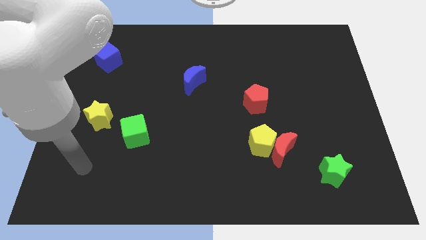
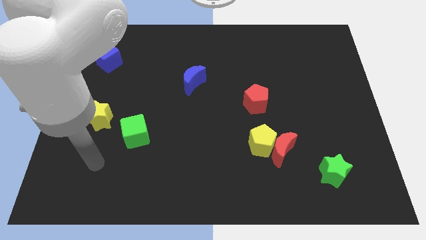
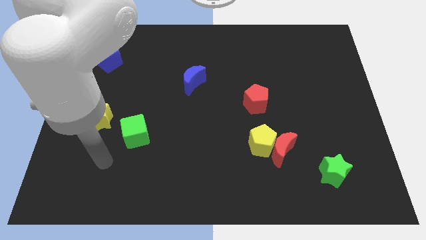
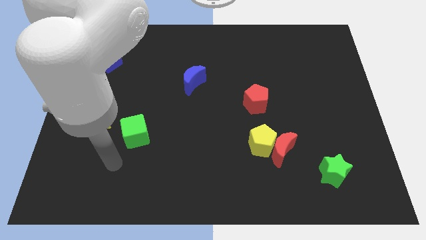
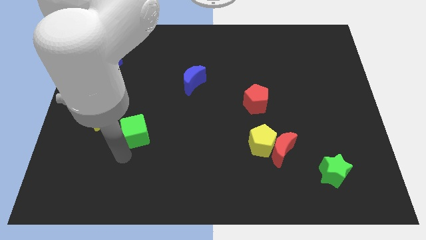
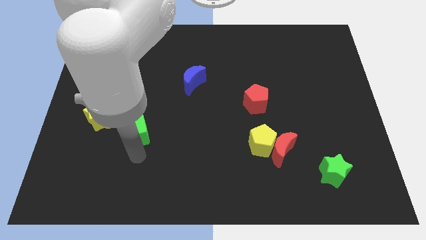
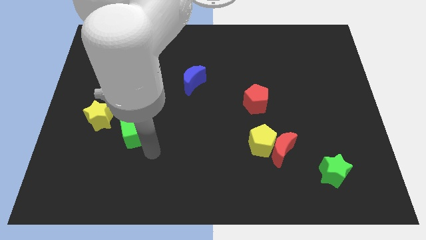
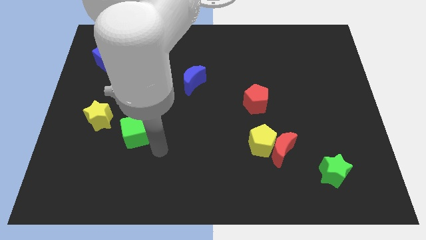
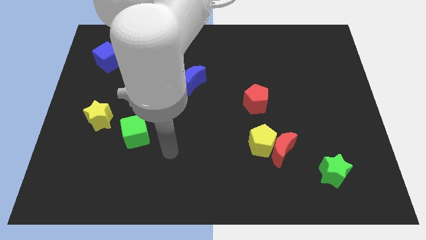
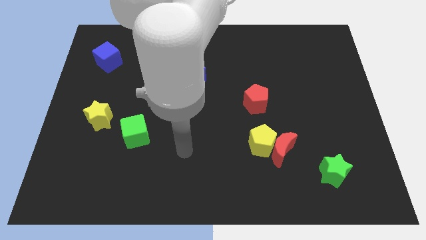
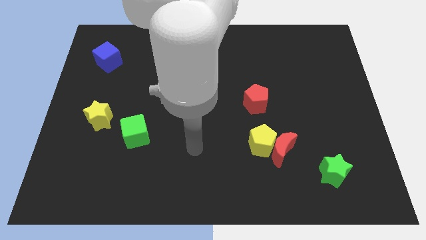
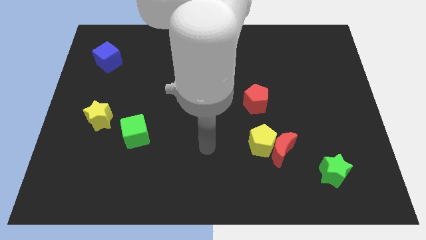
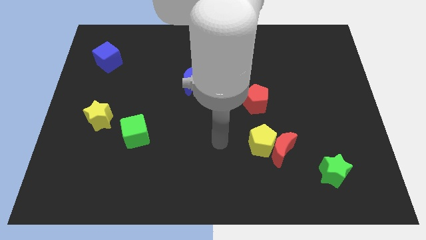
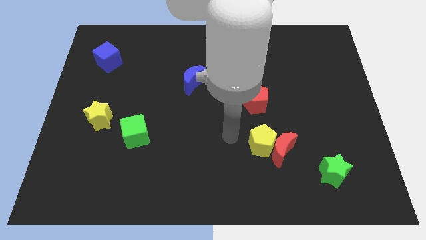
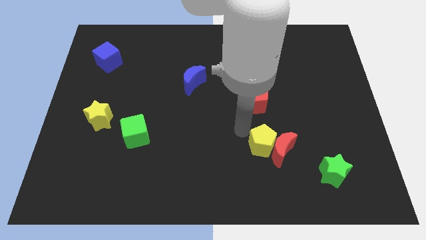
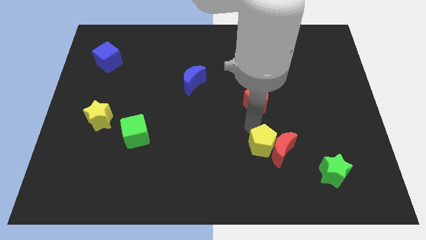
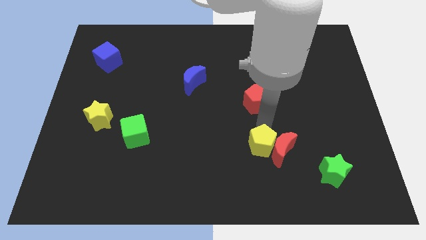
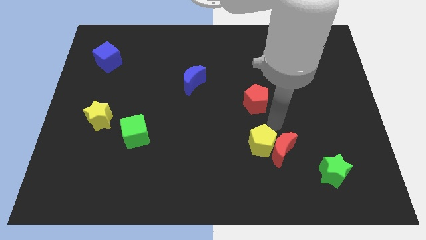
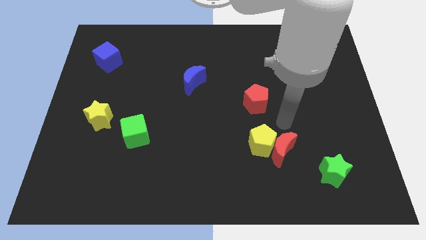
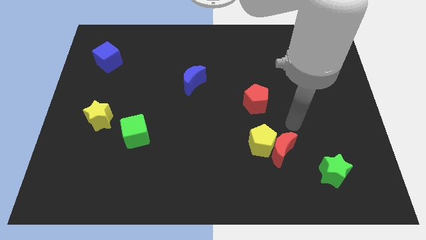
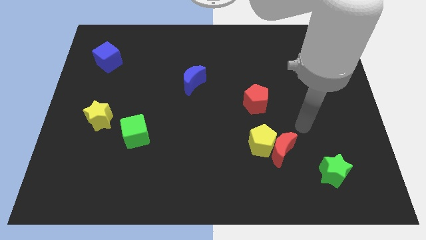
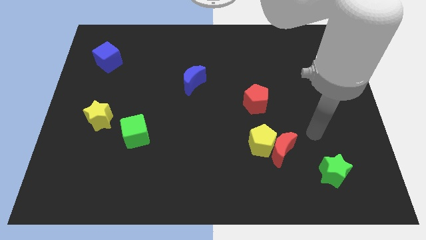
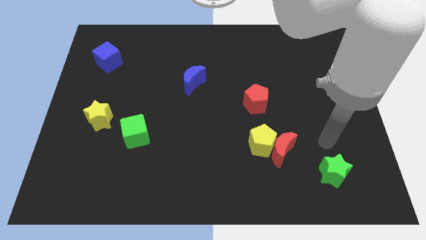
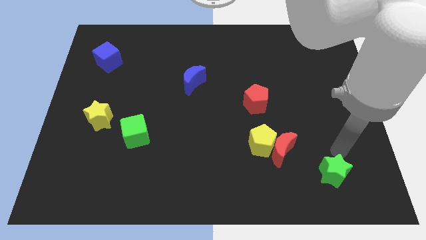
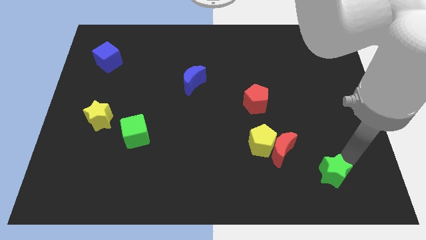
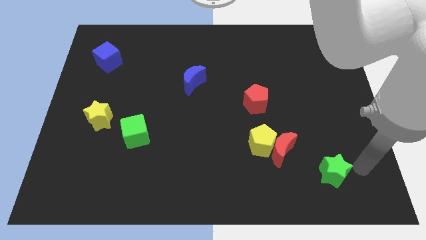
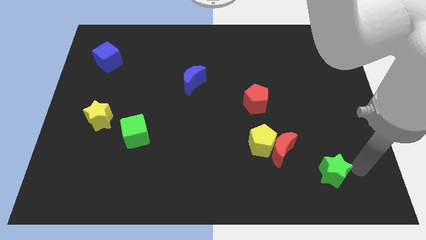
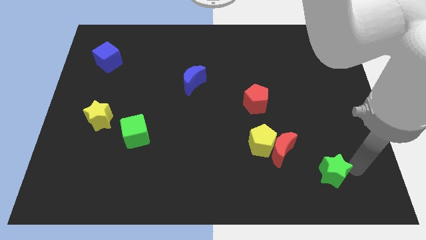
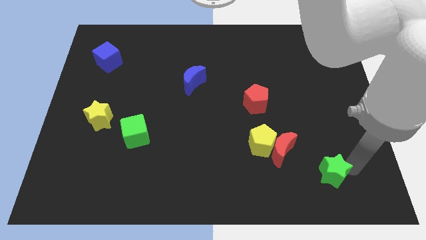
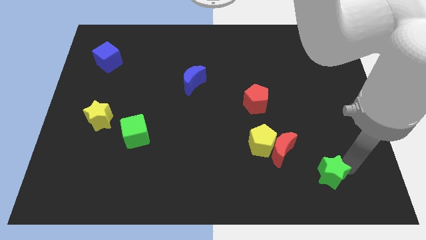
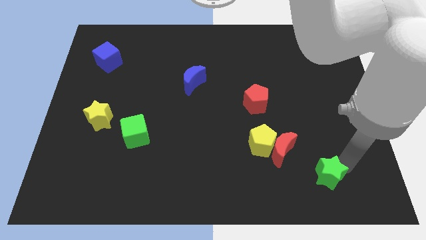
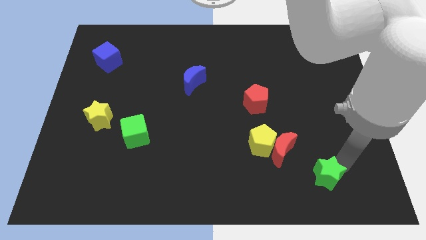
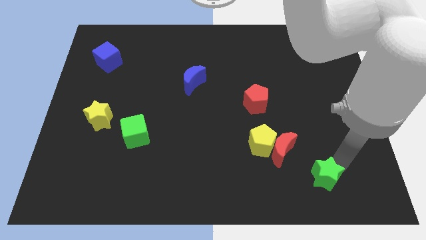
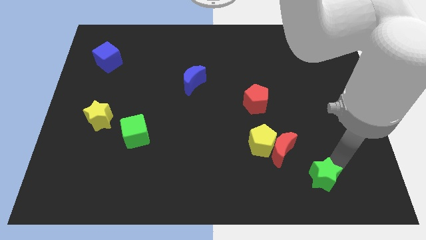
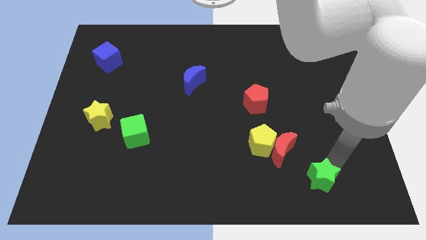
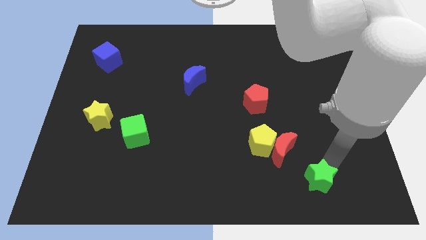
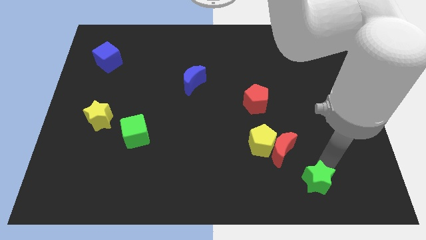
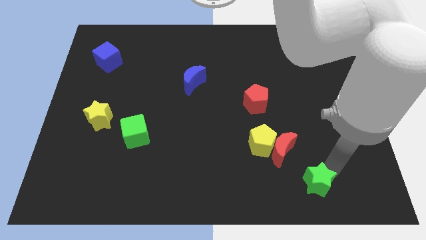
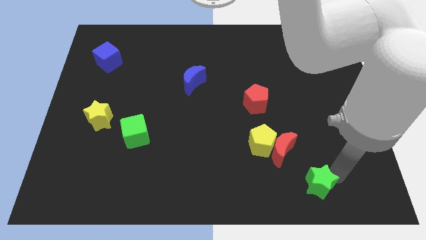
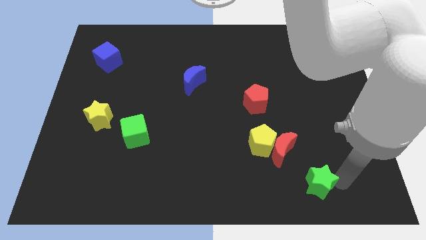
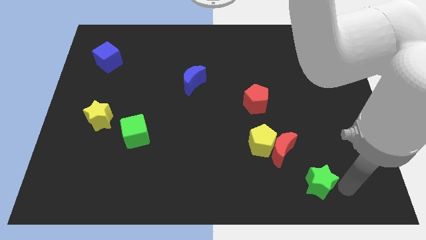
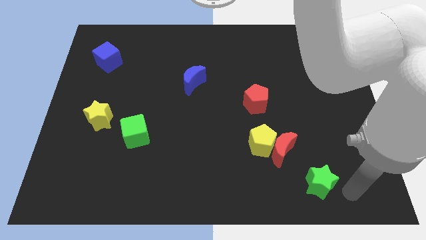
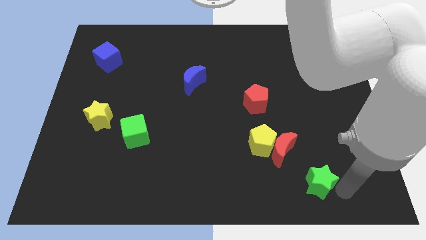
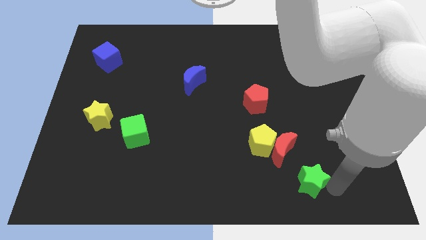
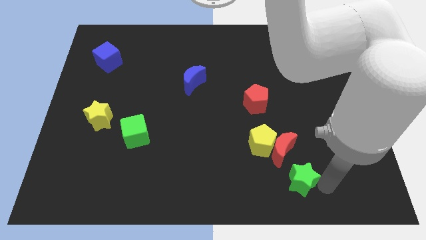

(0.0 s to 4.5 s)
slide the green star a little left

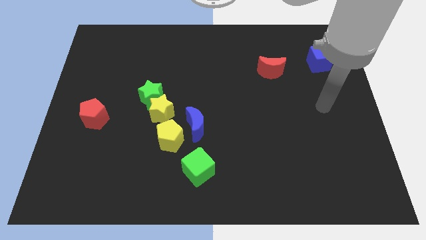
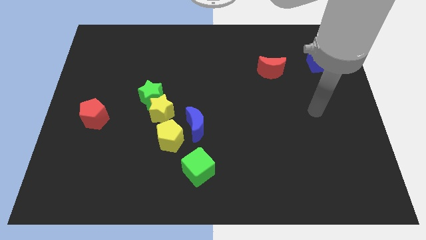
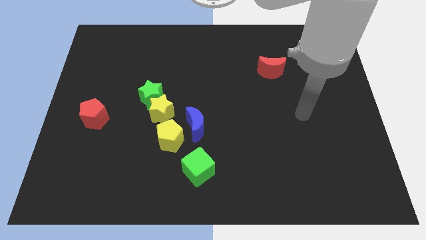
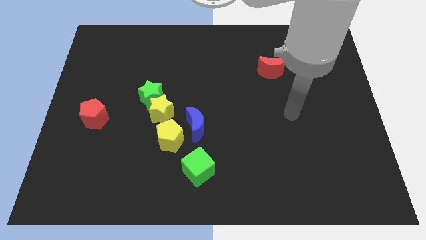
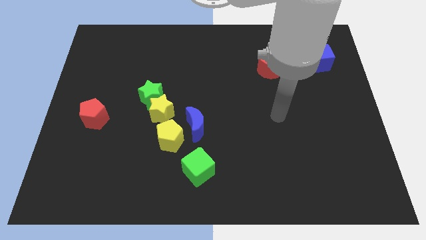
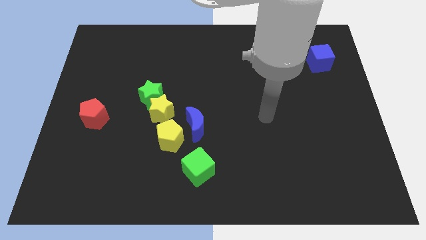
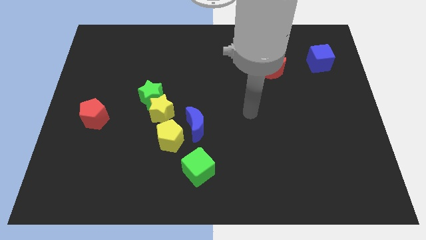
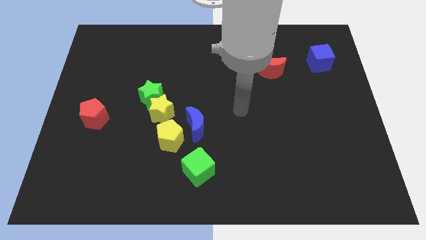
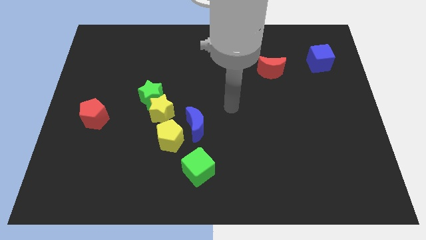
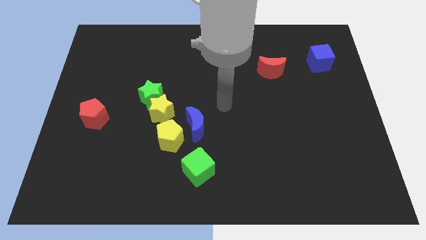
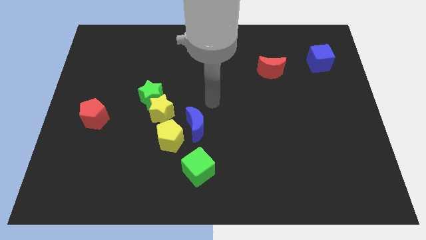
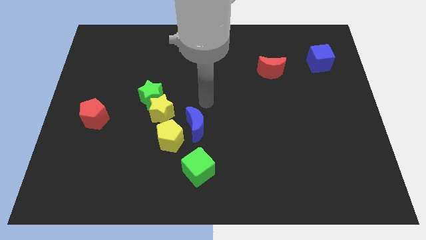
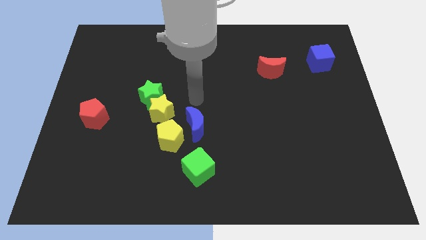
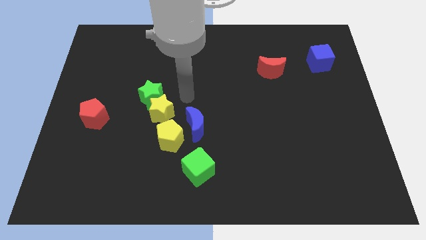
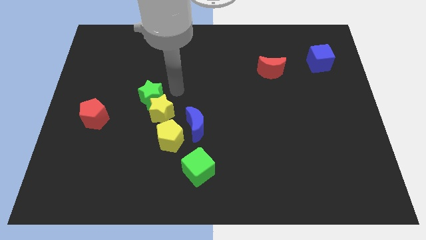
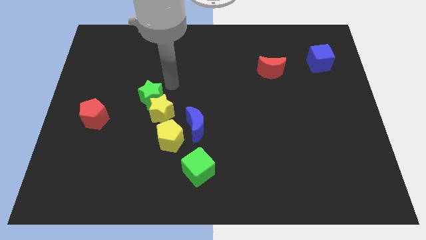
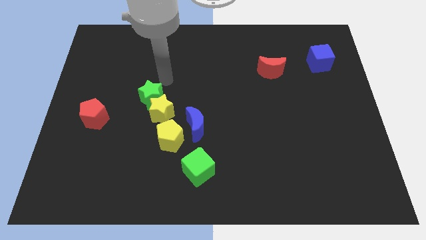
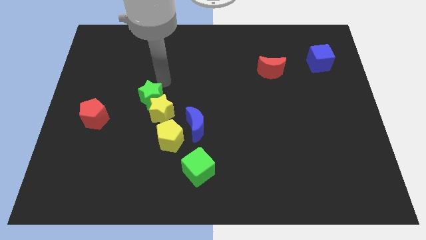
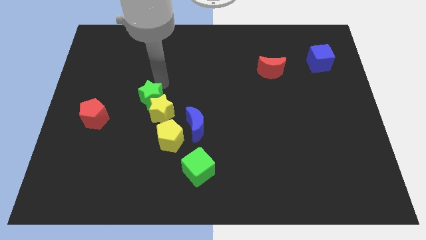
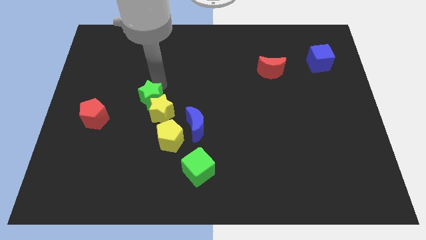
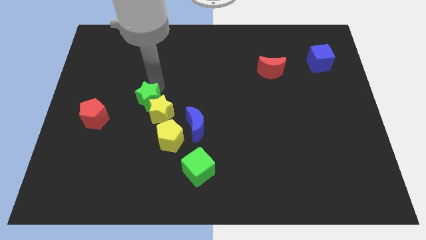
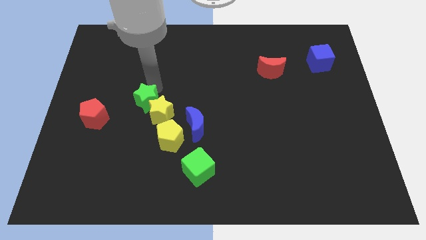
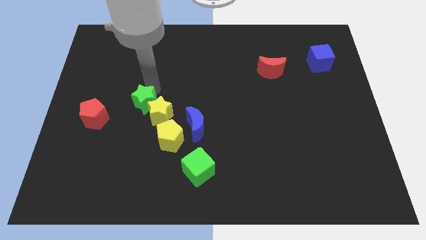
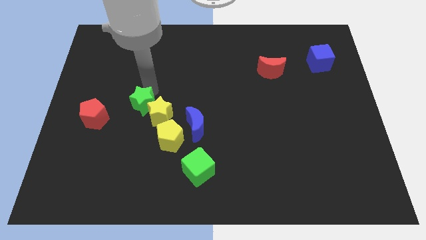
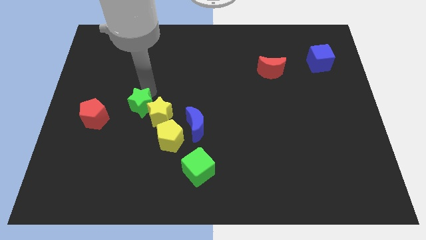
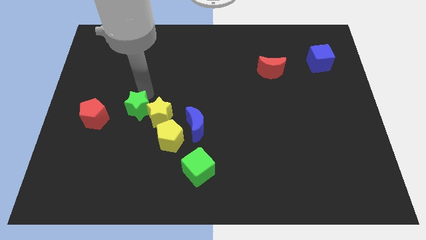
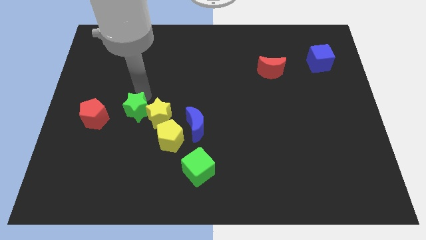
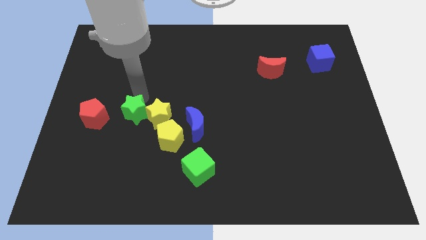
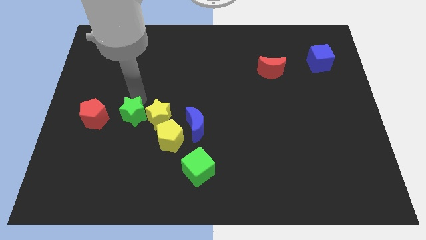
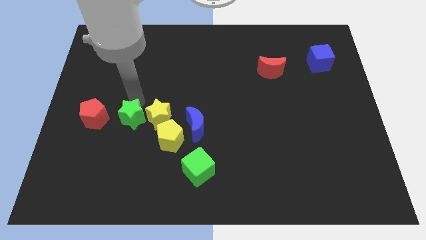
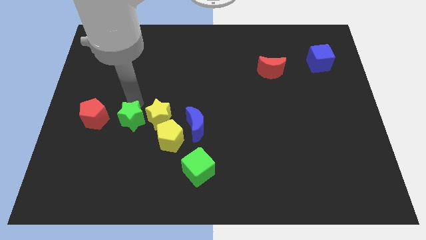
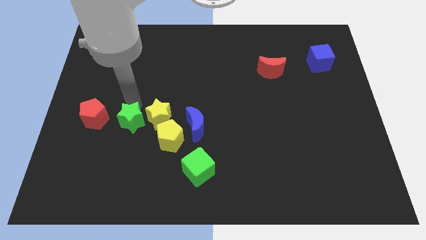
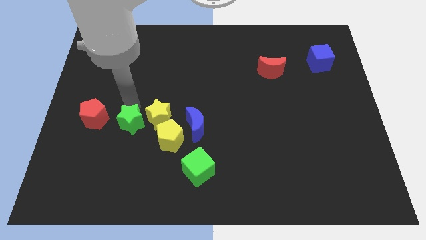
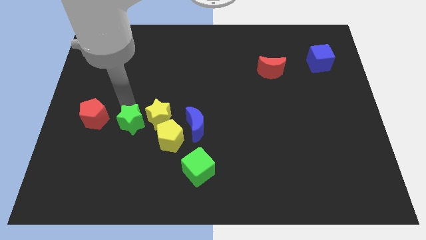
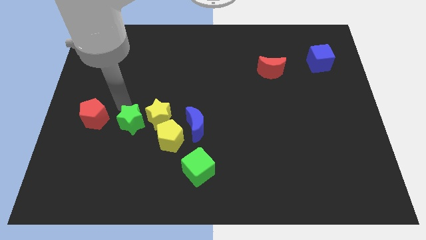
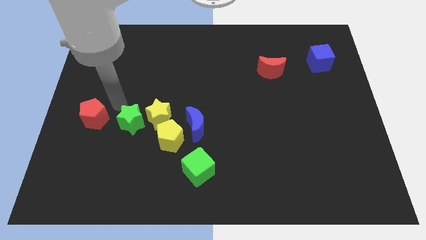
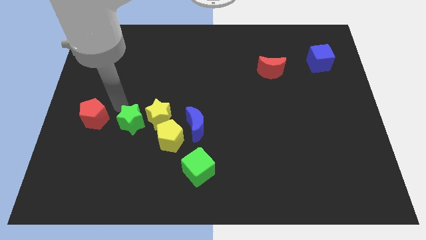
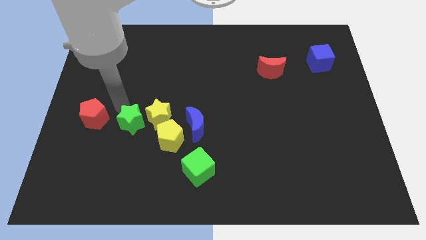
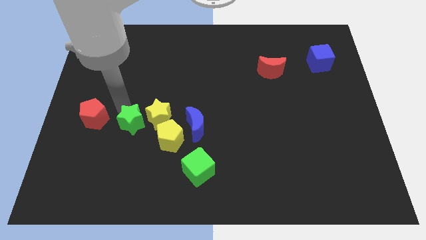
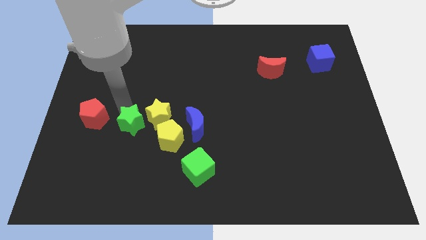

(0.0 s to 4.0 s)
move the green star slightly downwards
